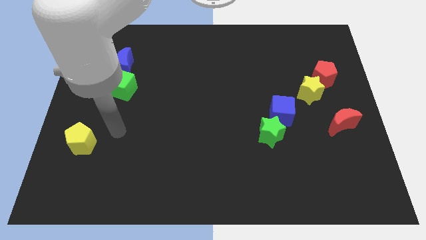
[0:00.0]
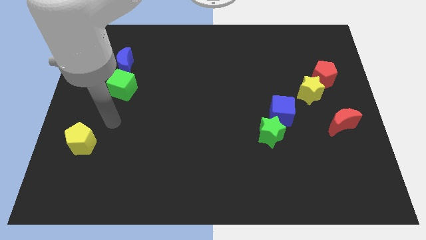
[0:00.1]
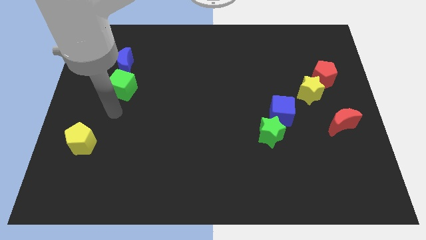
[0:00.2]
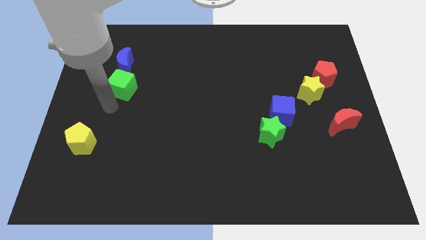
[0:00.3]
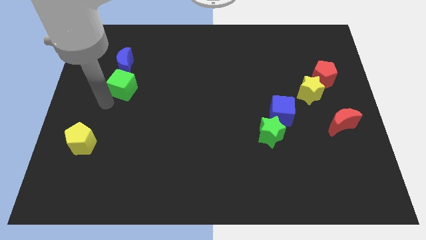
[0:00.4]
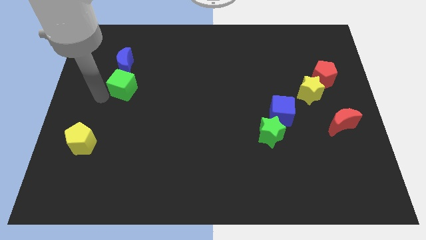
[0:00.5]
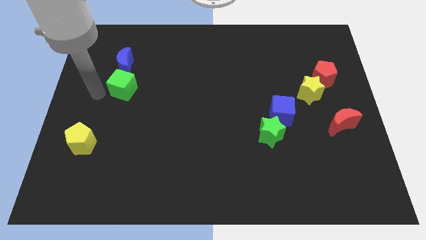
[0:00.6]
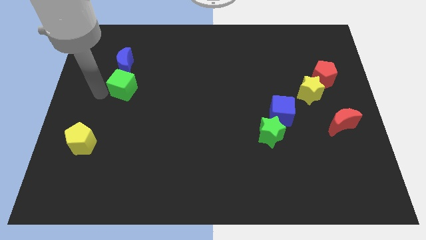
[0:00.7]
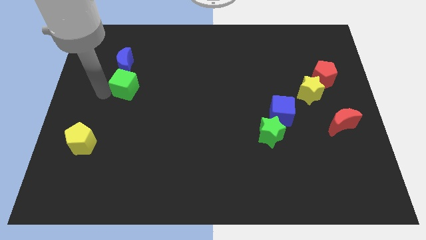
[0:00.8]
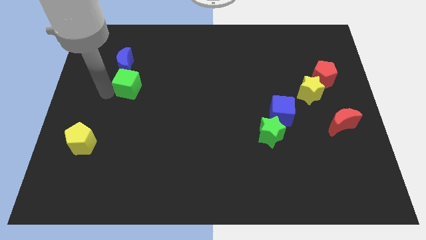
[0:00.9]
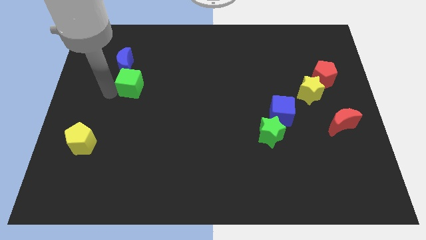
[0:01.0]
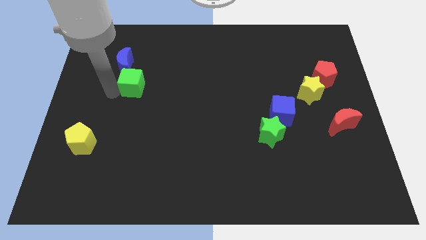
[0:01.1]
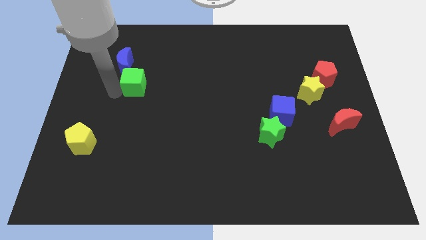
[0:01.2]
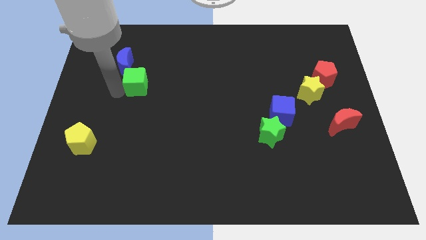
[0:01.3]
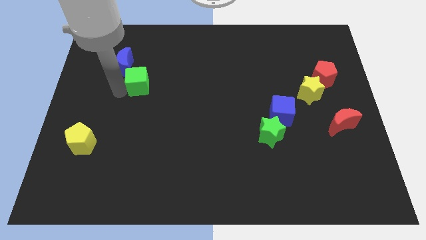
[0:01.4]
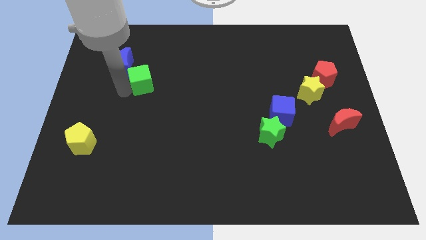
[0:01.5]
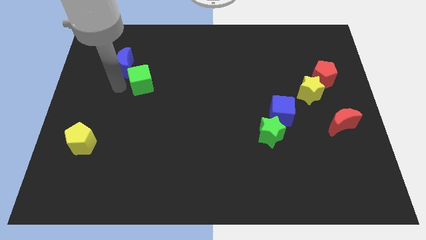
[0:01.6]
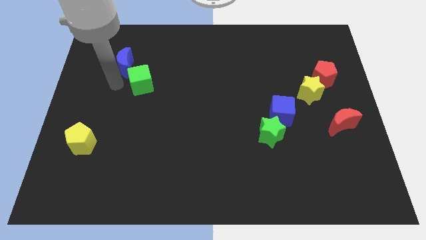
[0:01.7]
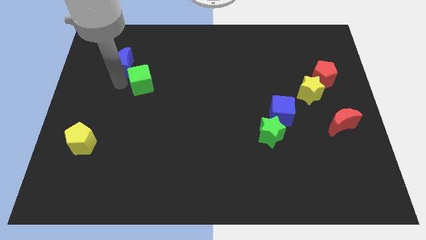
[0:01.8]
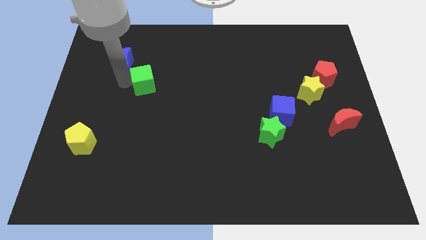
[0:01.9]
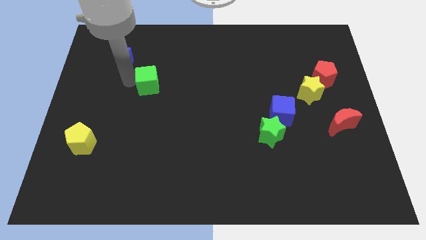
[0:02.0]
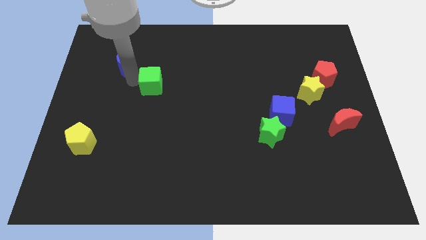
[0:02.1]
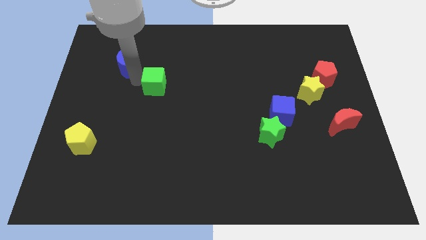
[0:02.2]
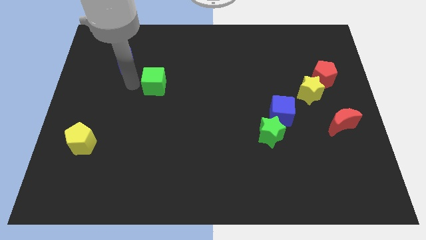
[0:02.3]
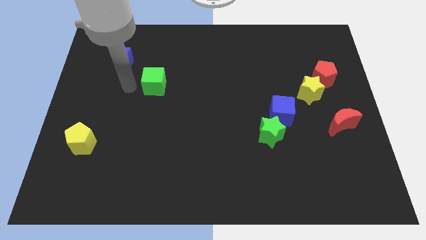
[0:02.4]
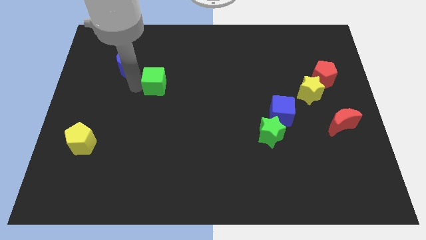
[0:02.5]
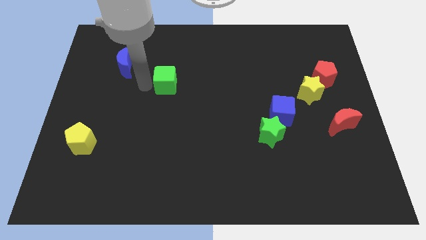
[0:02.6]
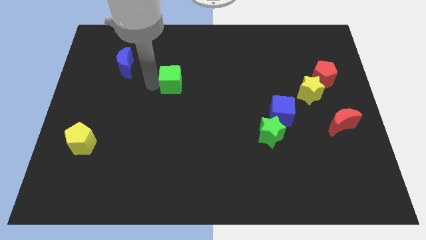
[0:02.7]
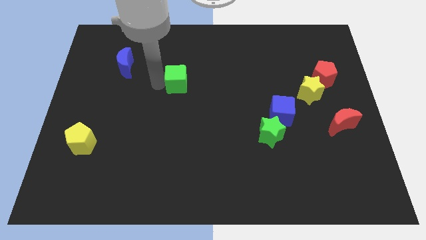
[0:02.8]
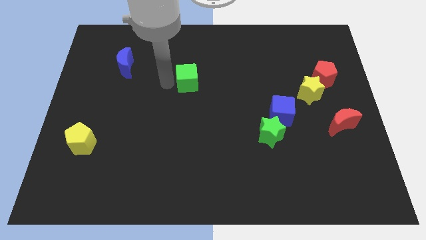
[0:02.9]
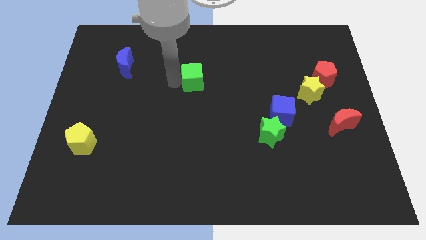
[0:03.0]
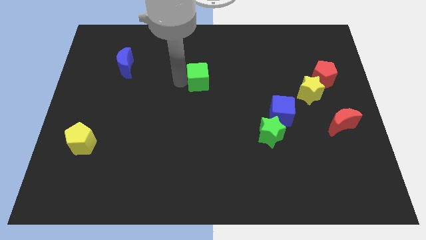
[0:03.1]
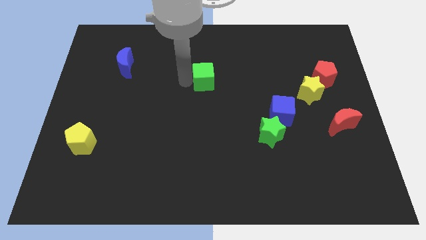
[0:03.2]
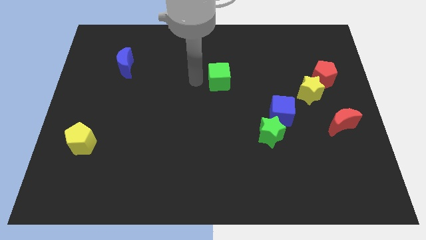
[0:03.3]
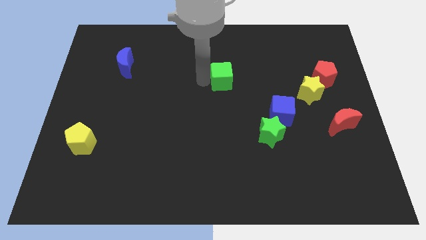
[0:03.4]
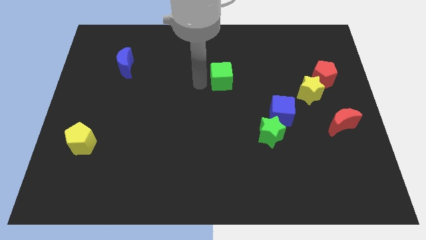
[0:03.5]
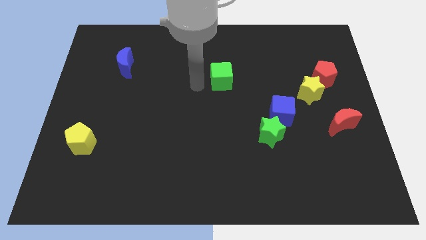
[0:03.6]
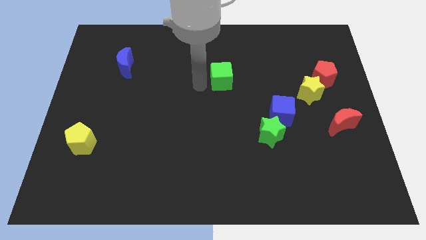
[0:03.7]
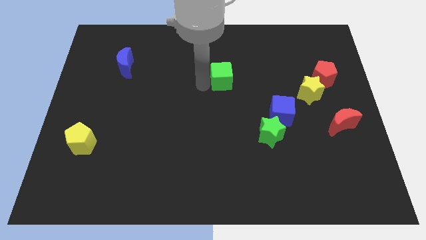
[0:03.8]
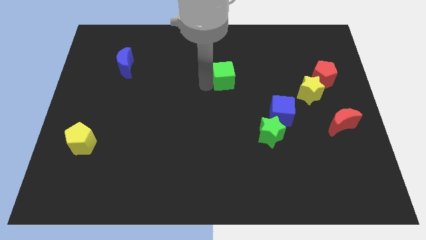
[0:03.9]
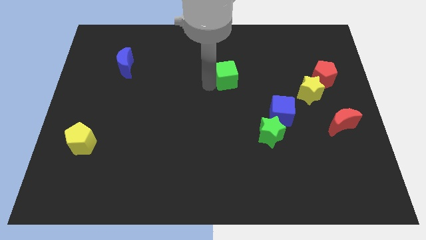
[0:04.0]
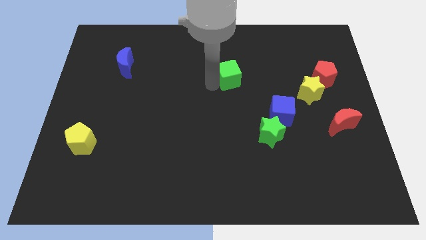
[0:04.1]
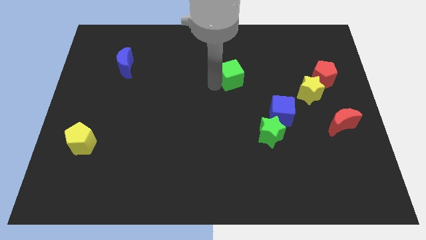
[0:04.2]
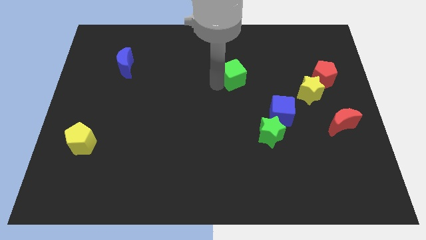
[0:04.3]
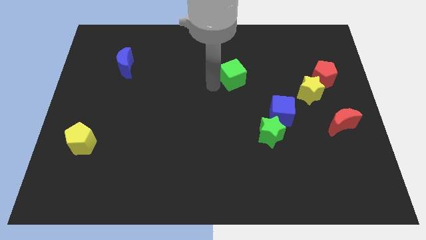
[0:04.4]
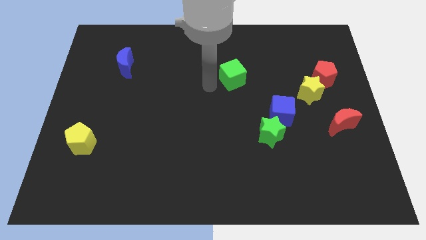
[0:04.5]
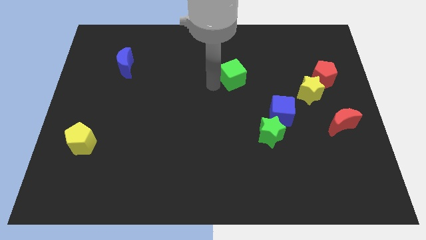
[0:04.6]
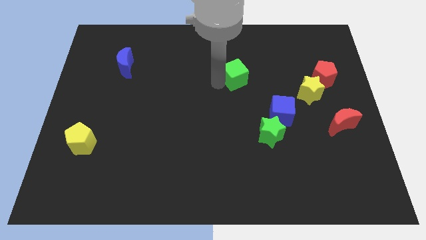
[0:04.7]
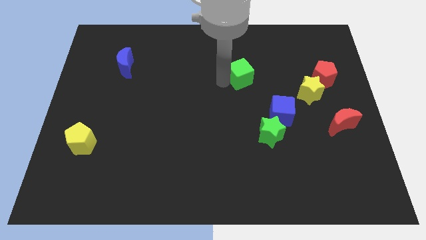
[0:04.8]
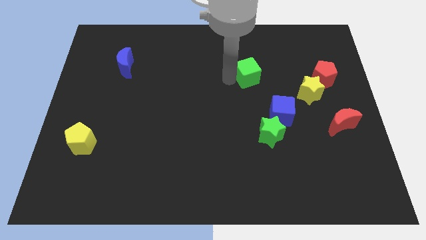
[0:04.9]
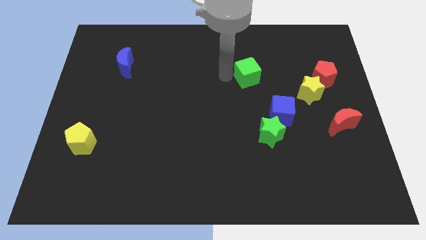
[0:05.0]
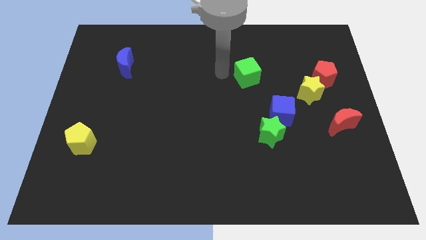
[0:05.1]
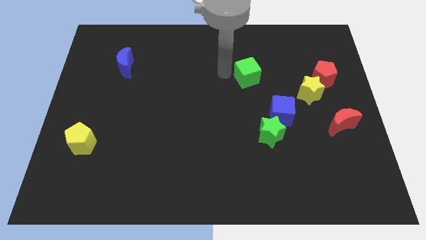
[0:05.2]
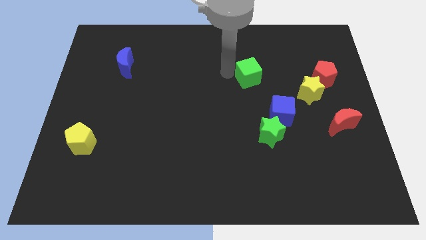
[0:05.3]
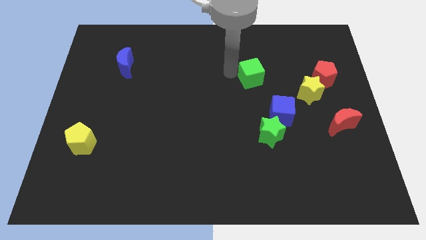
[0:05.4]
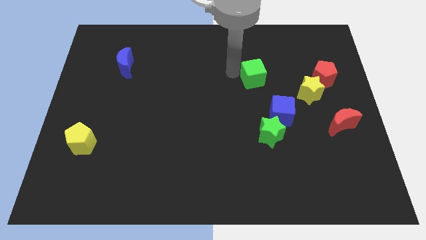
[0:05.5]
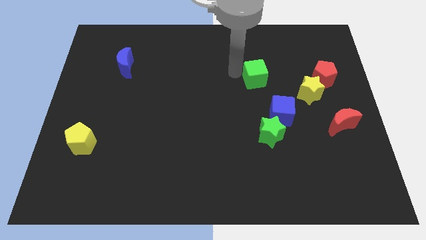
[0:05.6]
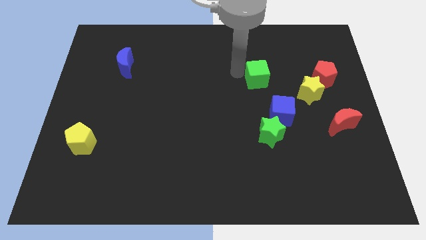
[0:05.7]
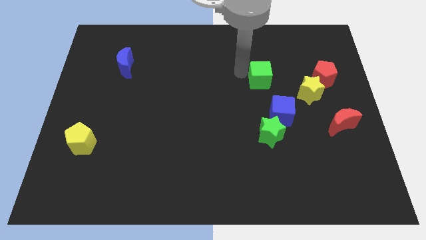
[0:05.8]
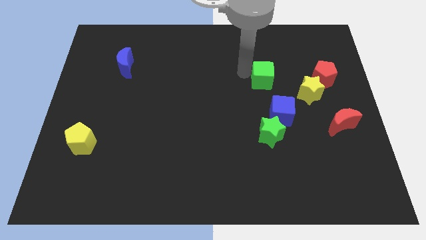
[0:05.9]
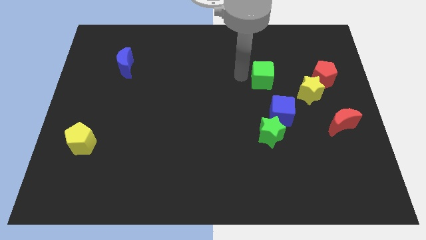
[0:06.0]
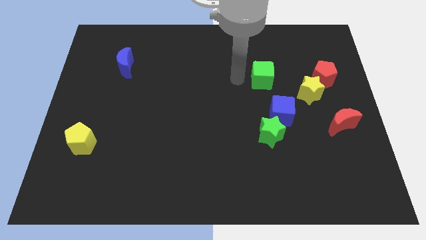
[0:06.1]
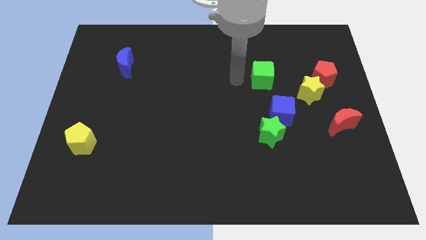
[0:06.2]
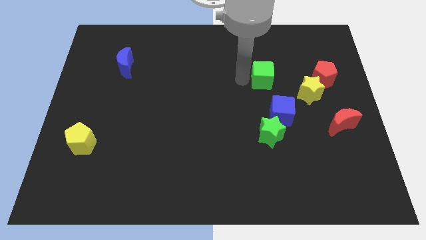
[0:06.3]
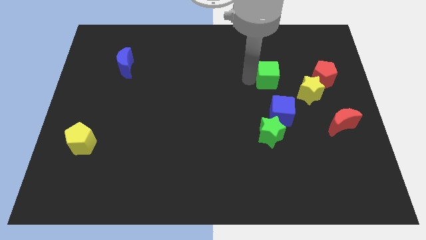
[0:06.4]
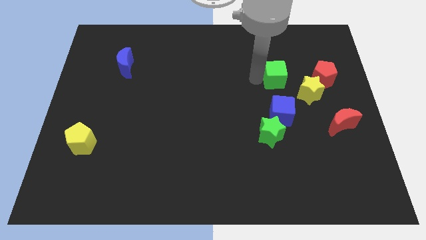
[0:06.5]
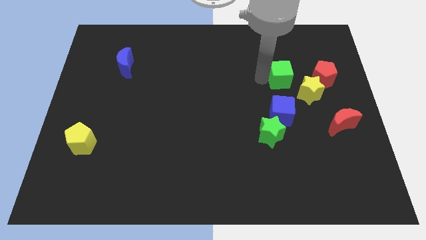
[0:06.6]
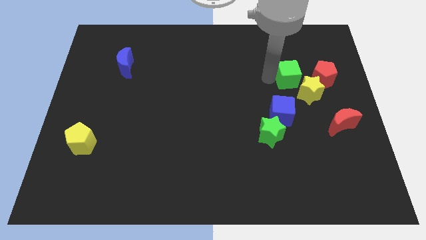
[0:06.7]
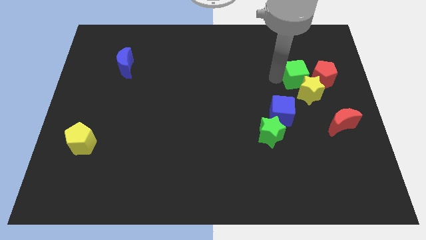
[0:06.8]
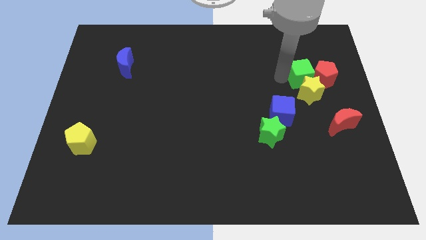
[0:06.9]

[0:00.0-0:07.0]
move the green cube next to the red pentagon
